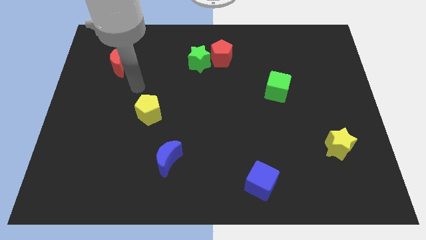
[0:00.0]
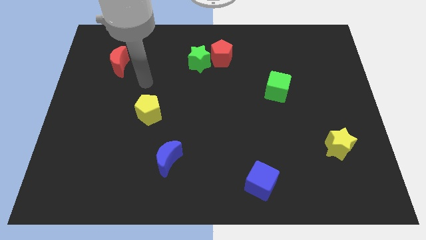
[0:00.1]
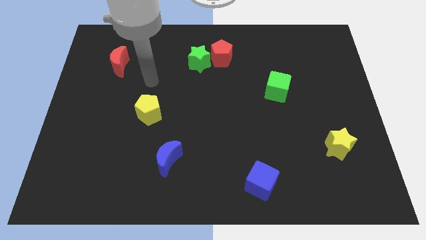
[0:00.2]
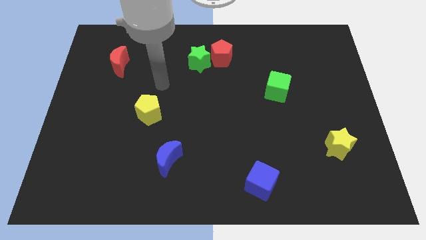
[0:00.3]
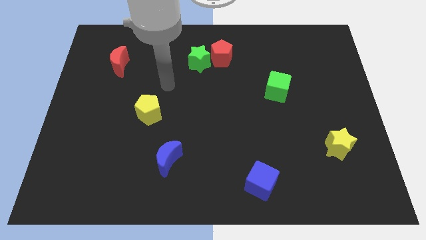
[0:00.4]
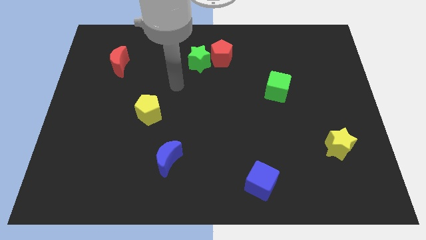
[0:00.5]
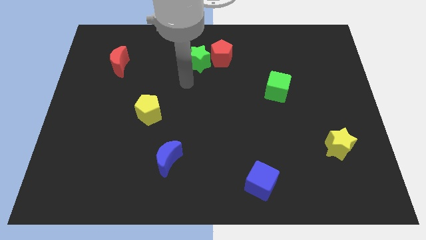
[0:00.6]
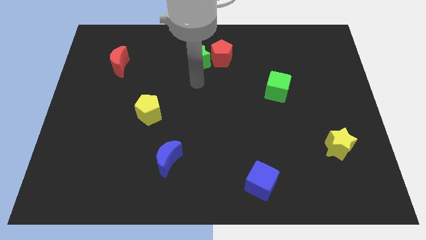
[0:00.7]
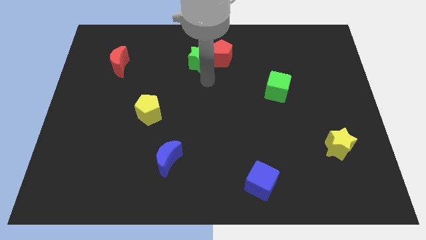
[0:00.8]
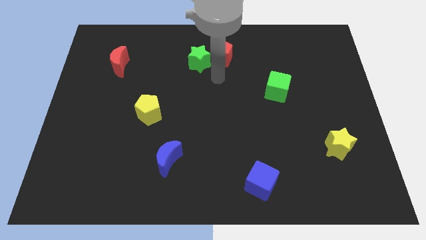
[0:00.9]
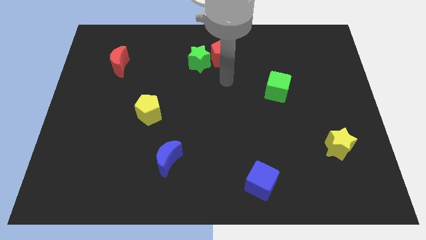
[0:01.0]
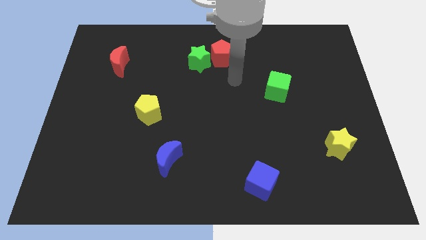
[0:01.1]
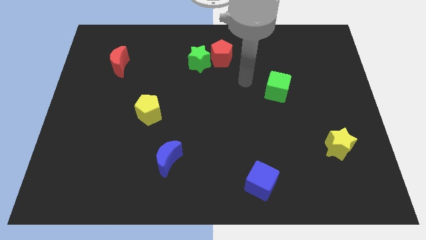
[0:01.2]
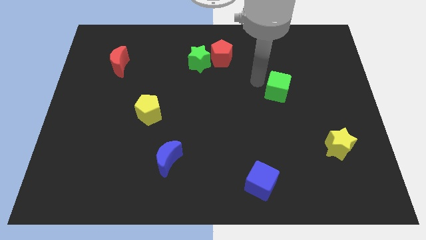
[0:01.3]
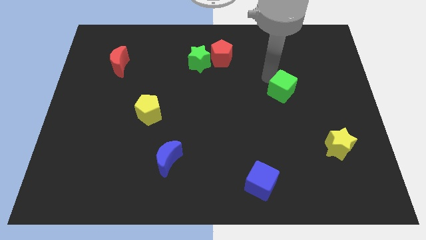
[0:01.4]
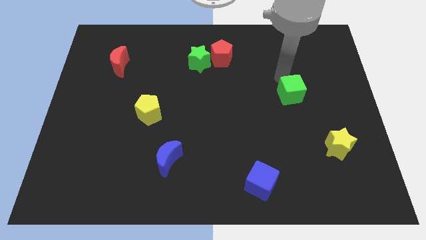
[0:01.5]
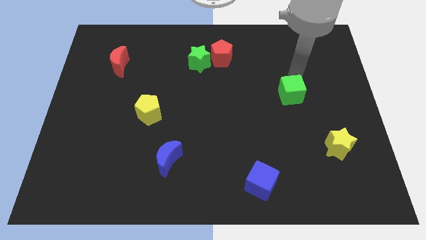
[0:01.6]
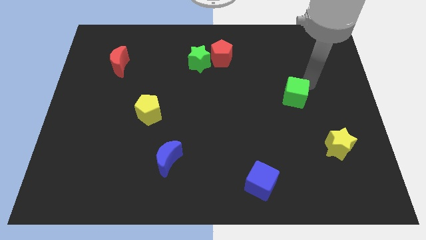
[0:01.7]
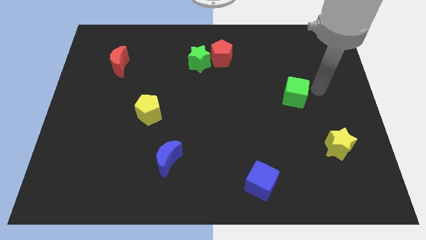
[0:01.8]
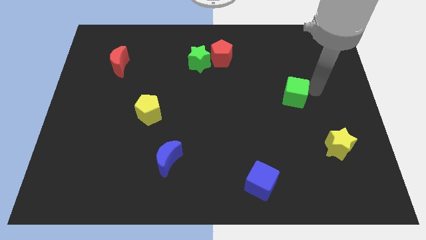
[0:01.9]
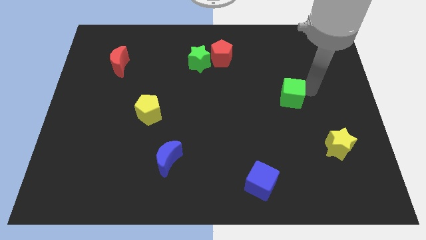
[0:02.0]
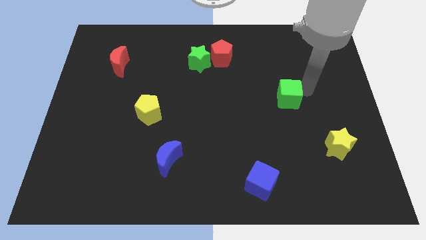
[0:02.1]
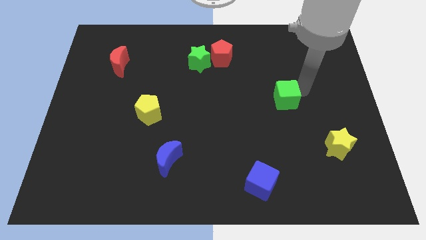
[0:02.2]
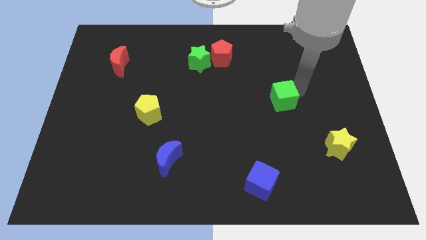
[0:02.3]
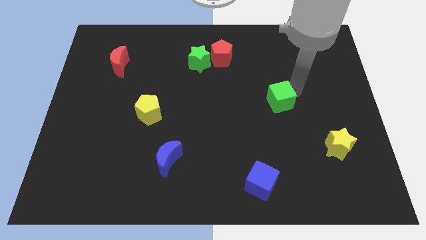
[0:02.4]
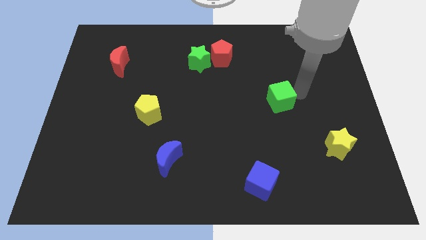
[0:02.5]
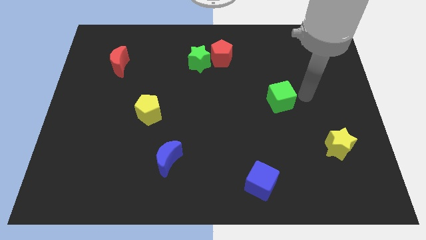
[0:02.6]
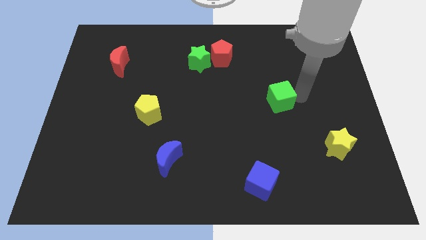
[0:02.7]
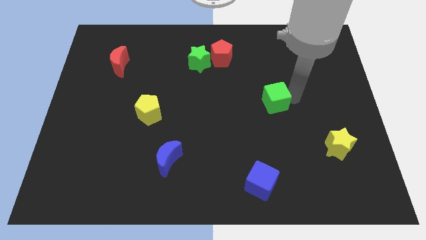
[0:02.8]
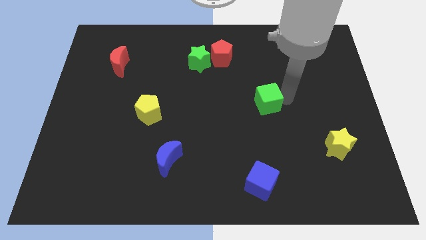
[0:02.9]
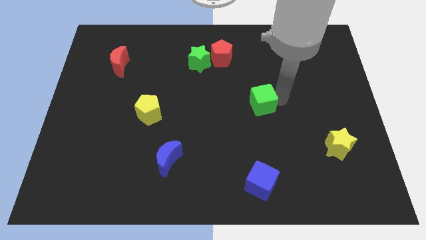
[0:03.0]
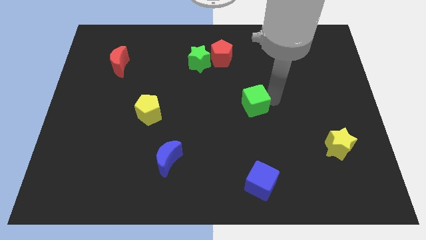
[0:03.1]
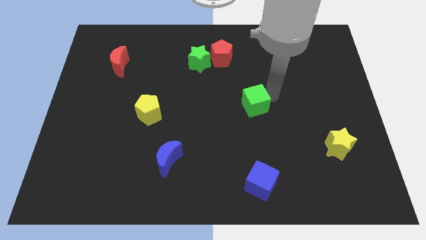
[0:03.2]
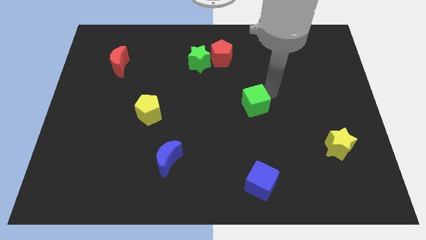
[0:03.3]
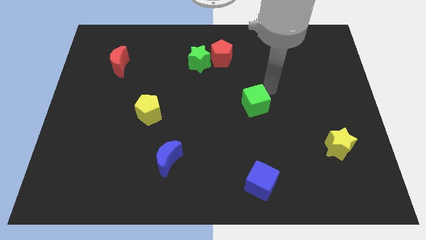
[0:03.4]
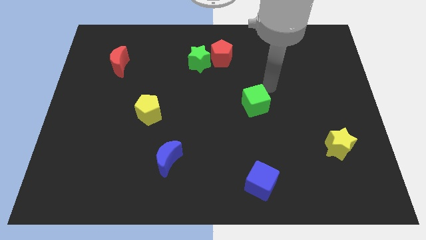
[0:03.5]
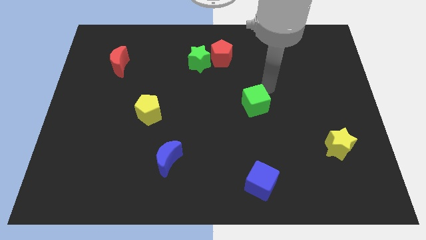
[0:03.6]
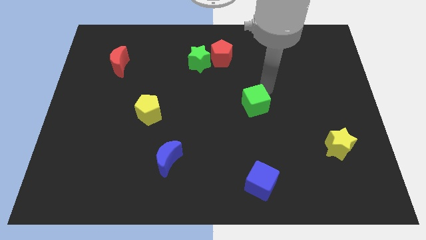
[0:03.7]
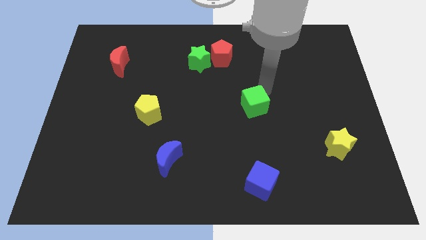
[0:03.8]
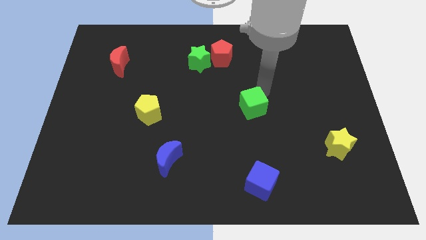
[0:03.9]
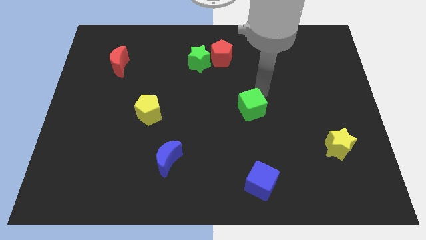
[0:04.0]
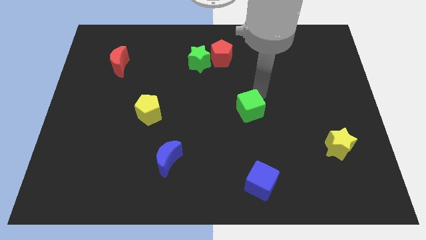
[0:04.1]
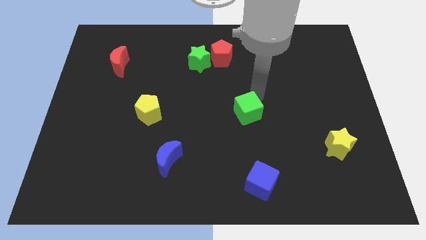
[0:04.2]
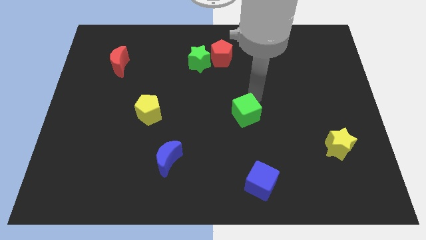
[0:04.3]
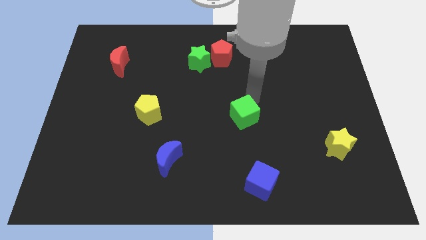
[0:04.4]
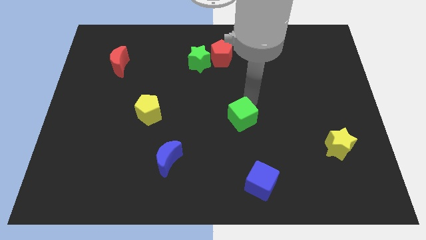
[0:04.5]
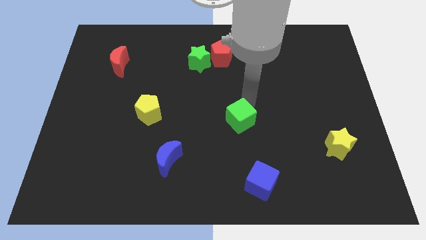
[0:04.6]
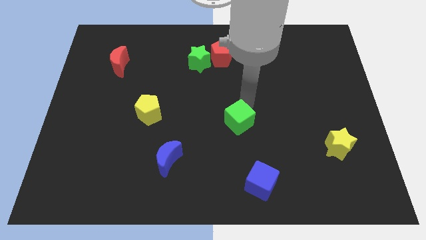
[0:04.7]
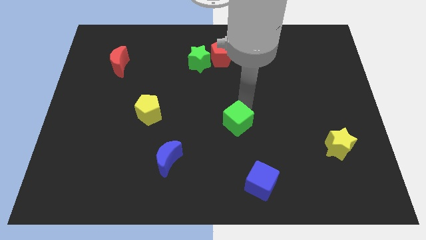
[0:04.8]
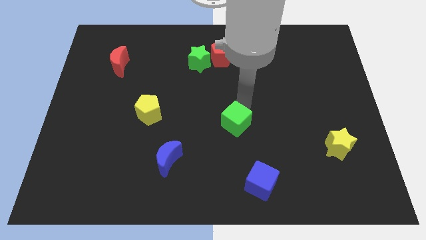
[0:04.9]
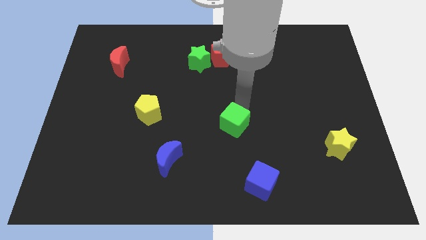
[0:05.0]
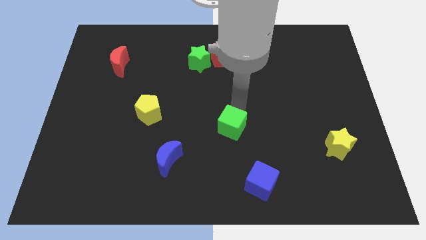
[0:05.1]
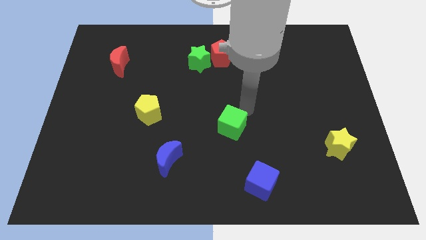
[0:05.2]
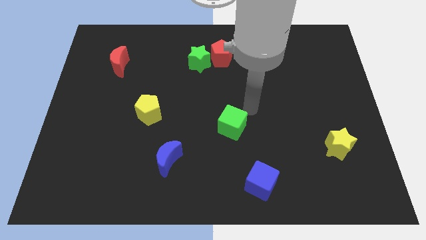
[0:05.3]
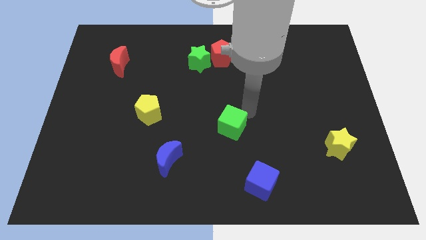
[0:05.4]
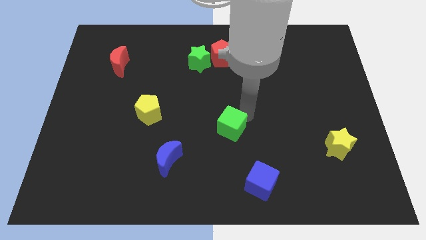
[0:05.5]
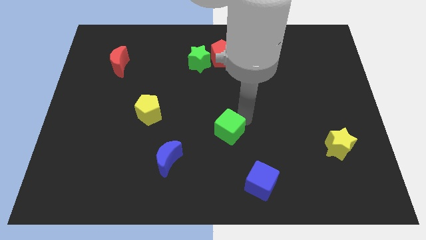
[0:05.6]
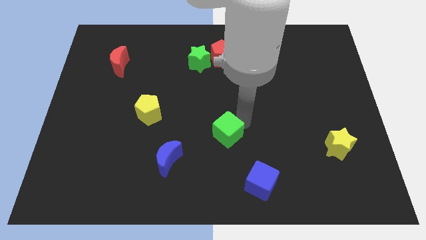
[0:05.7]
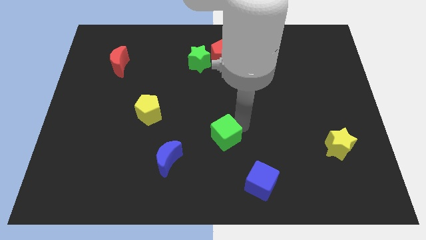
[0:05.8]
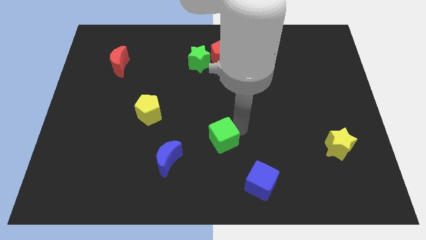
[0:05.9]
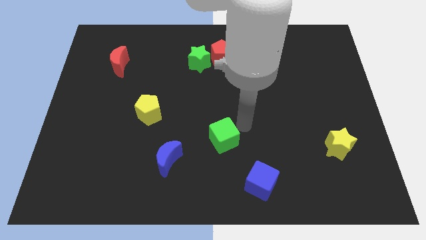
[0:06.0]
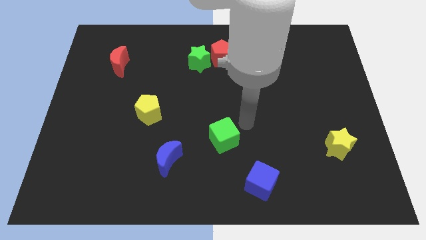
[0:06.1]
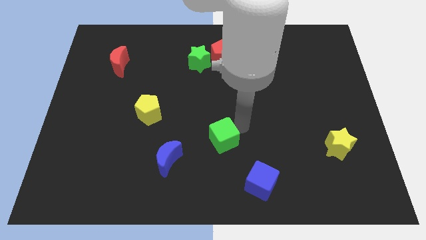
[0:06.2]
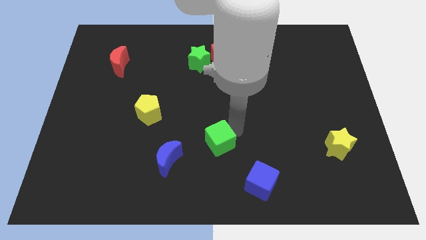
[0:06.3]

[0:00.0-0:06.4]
push the green cube down and then to the left

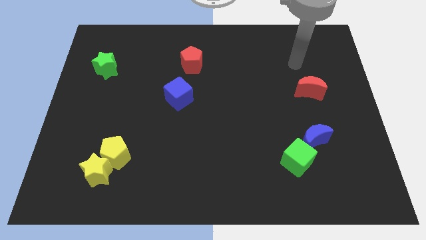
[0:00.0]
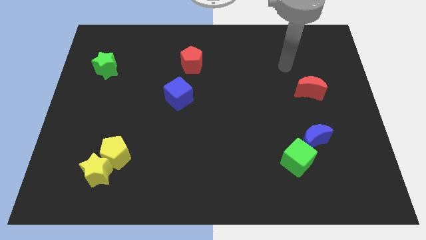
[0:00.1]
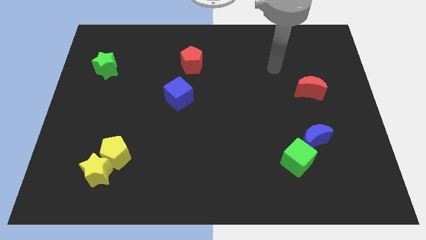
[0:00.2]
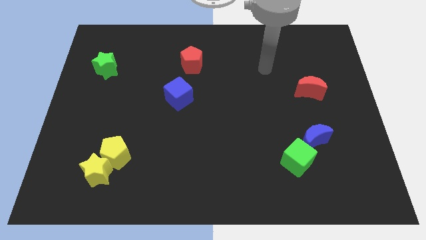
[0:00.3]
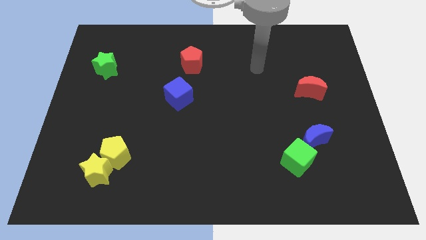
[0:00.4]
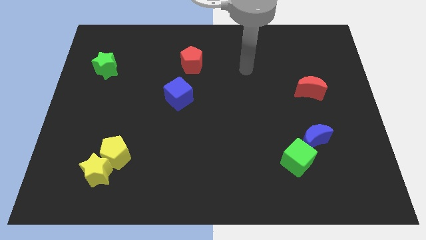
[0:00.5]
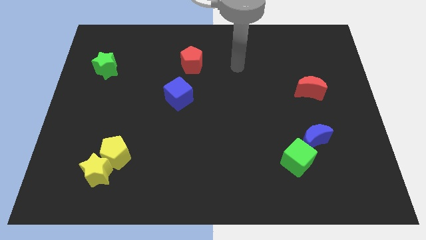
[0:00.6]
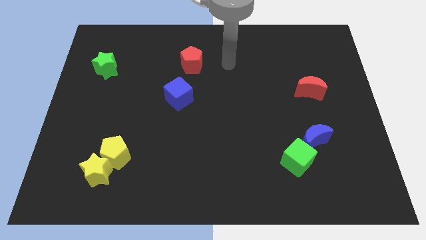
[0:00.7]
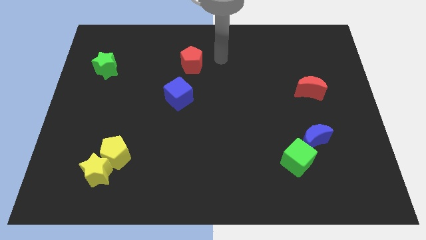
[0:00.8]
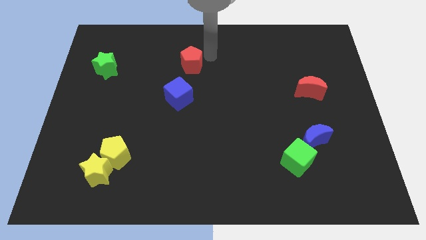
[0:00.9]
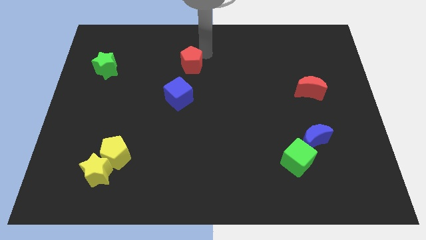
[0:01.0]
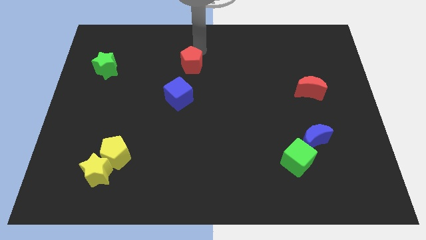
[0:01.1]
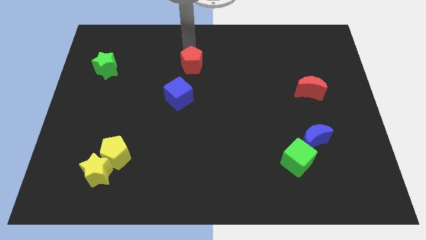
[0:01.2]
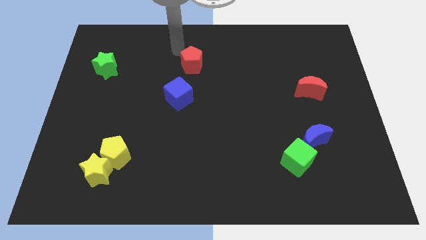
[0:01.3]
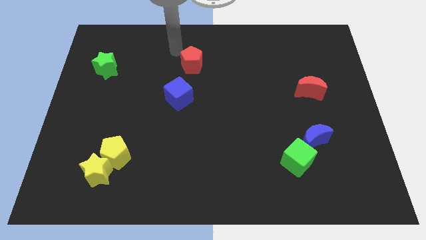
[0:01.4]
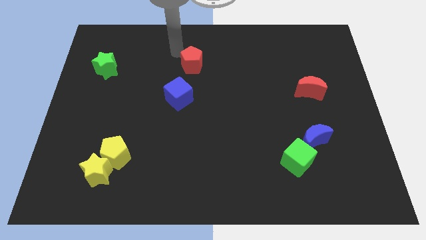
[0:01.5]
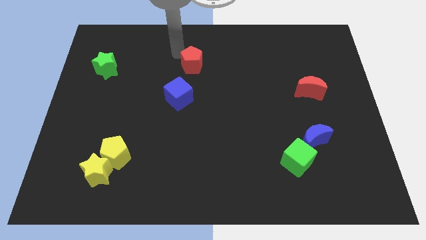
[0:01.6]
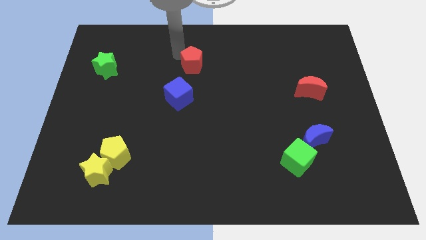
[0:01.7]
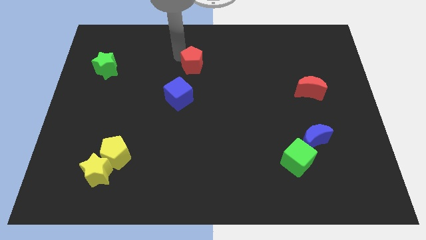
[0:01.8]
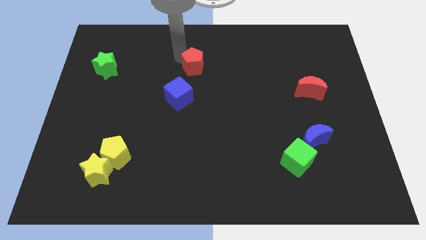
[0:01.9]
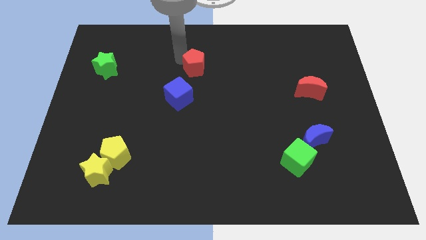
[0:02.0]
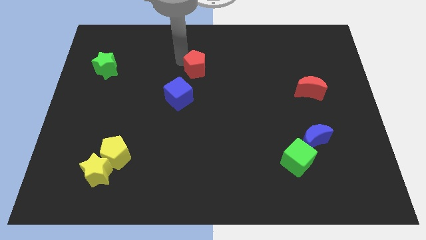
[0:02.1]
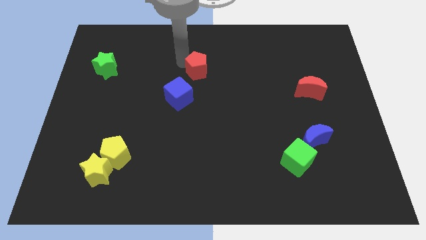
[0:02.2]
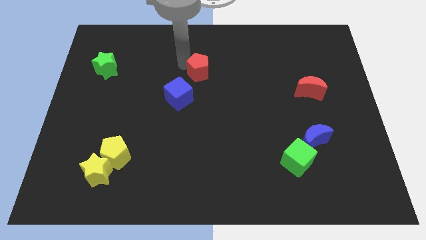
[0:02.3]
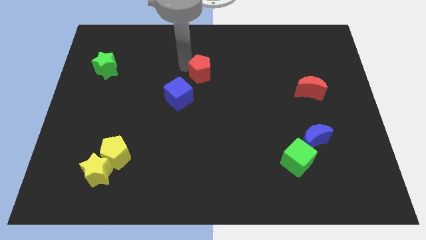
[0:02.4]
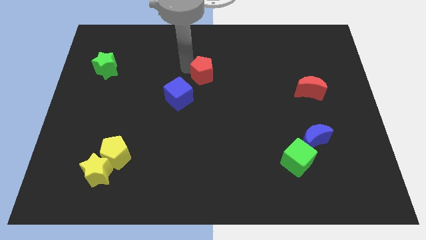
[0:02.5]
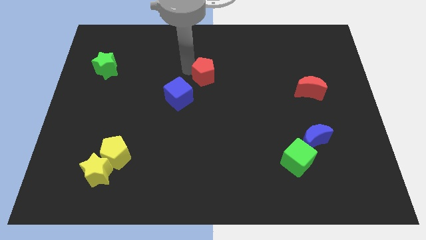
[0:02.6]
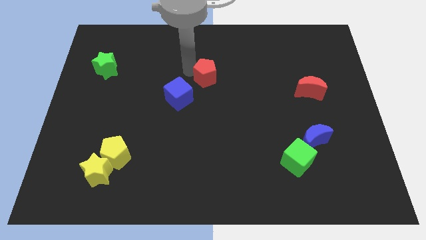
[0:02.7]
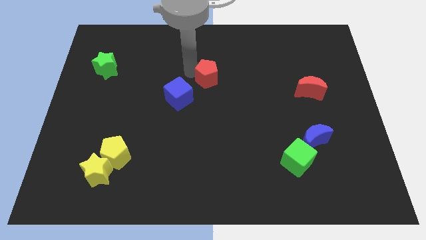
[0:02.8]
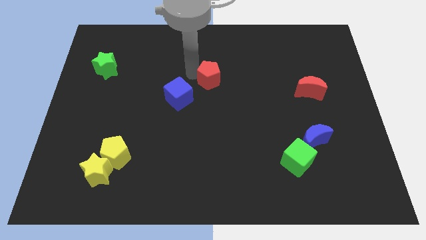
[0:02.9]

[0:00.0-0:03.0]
move the red pentagon a little diagonally downwards and to the right
